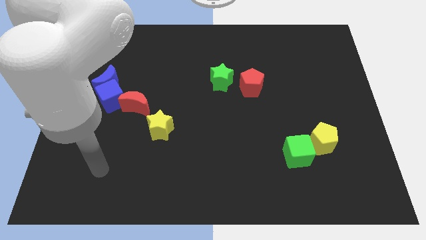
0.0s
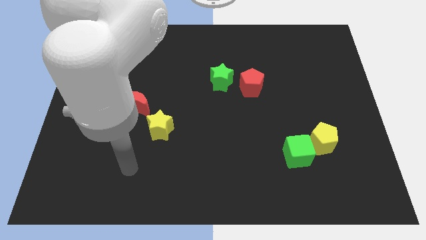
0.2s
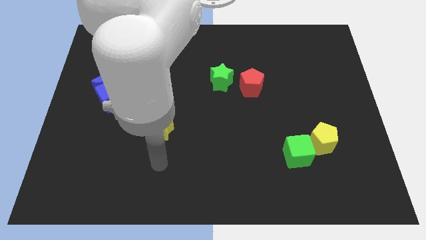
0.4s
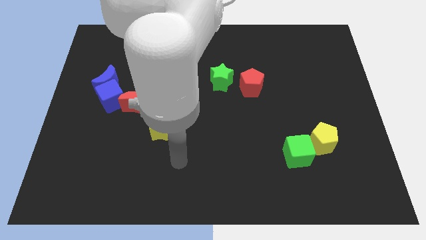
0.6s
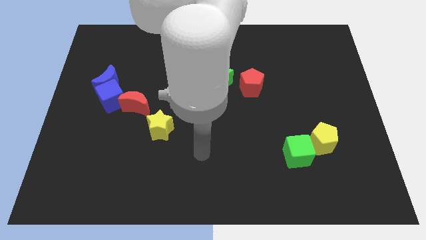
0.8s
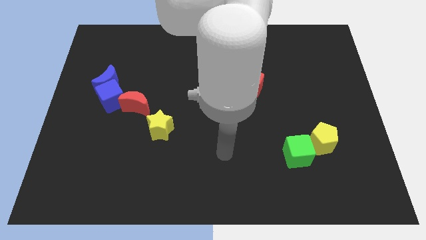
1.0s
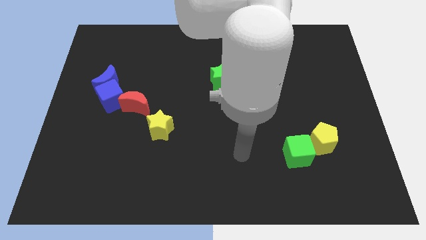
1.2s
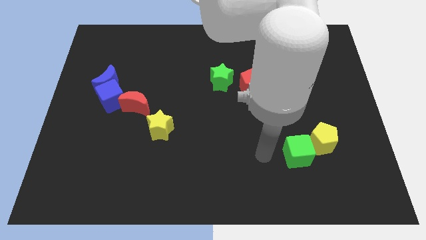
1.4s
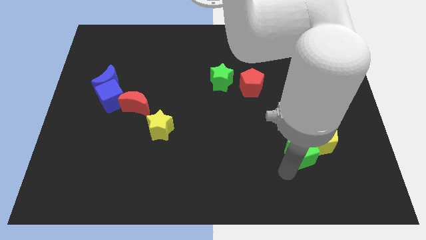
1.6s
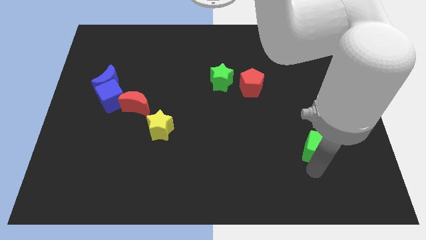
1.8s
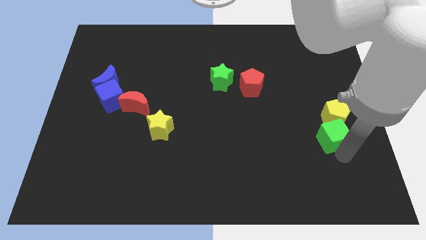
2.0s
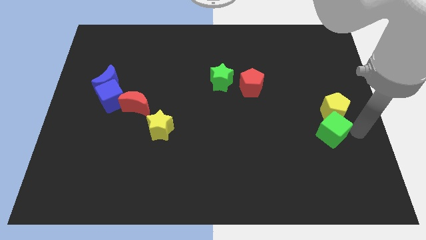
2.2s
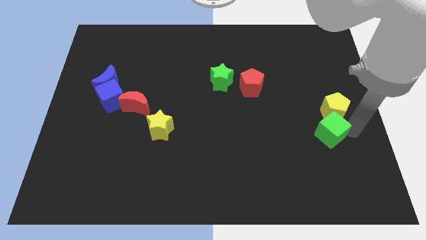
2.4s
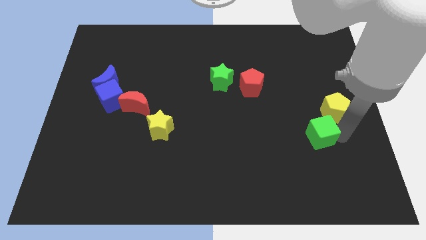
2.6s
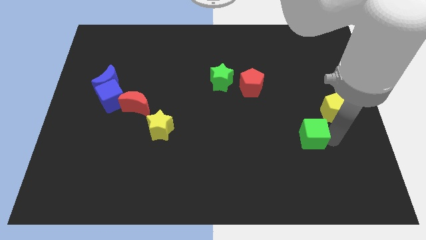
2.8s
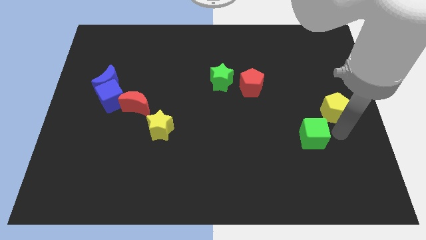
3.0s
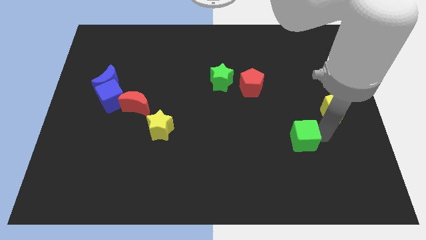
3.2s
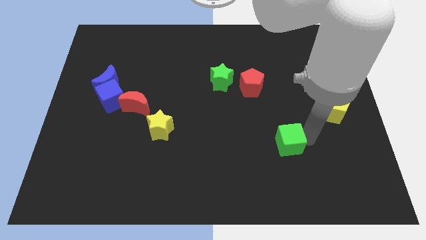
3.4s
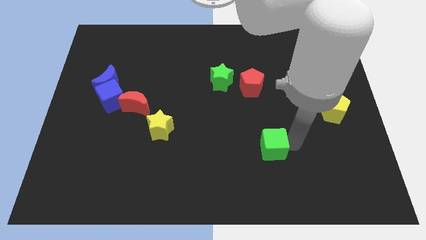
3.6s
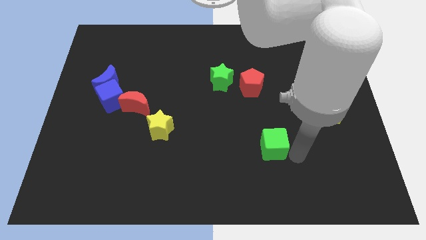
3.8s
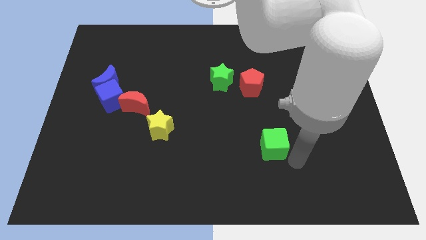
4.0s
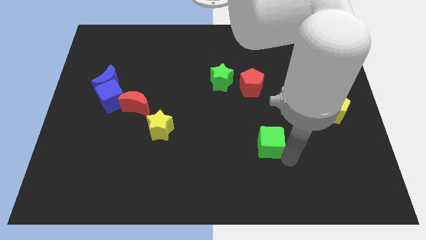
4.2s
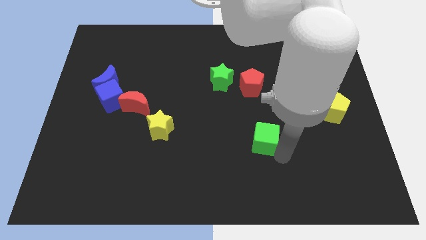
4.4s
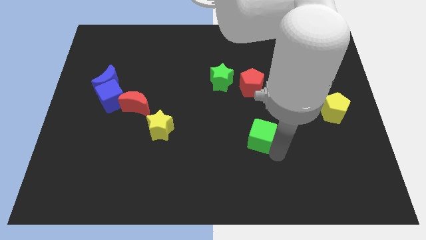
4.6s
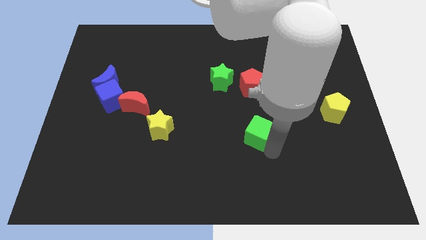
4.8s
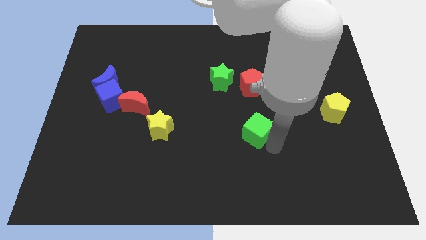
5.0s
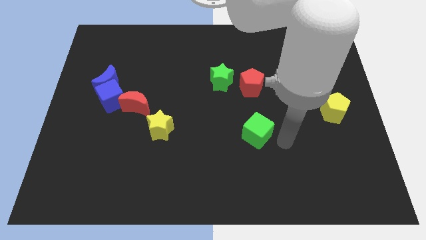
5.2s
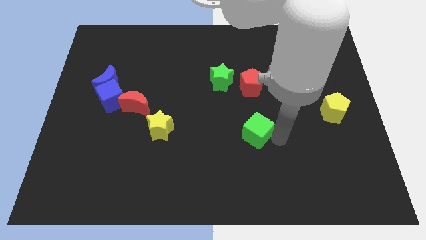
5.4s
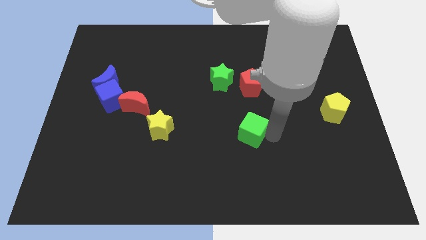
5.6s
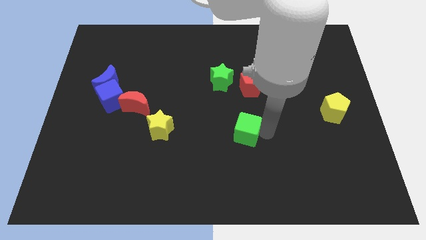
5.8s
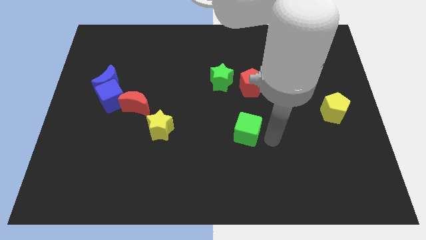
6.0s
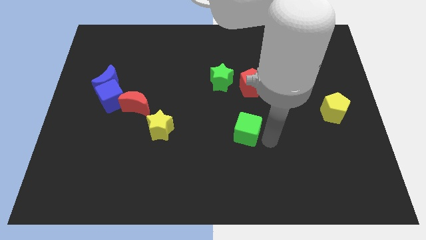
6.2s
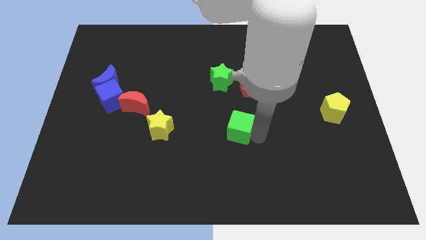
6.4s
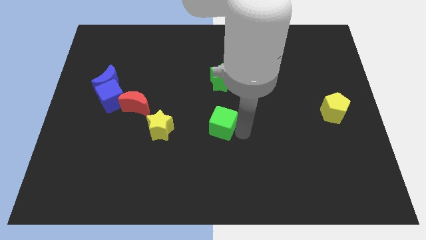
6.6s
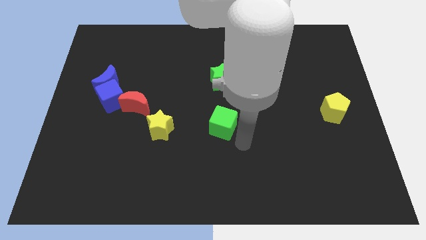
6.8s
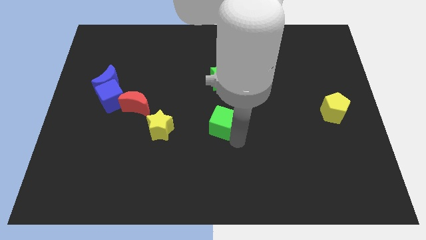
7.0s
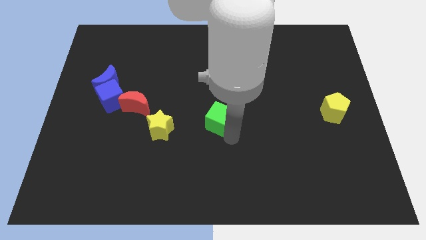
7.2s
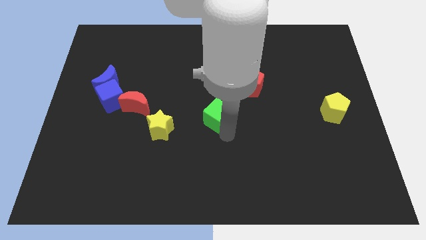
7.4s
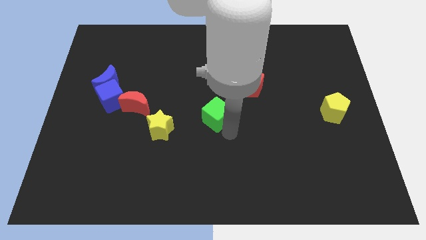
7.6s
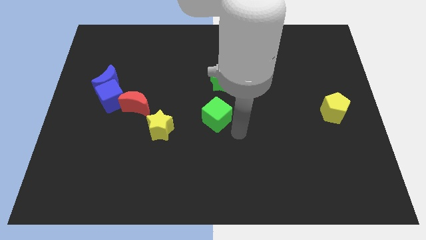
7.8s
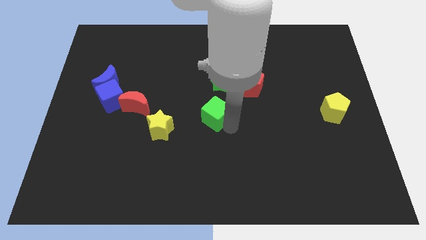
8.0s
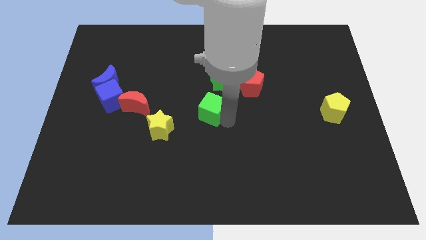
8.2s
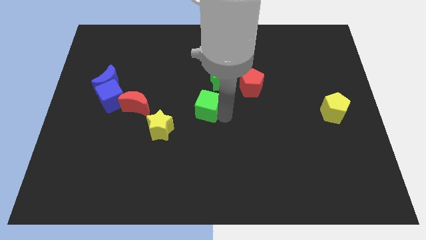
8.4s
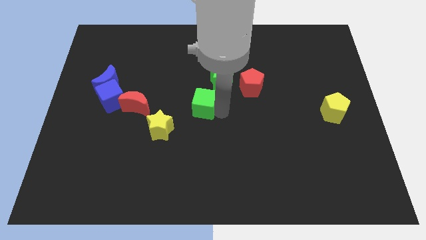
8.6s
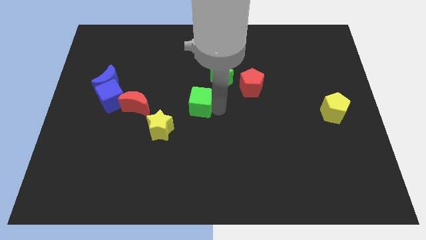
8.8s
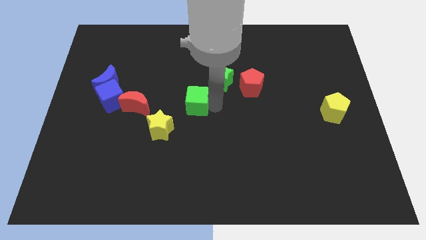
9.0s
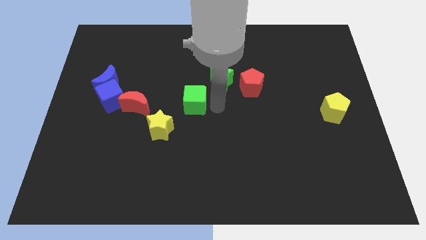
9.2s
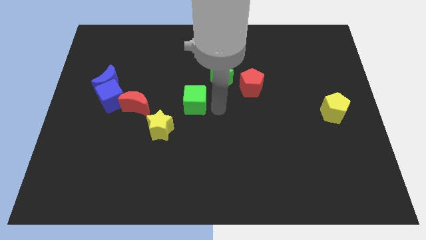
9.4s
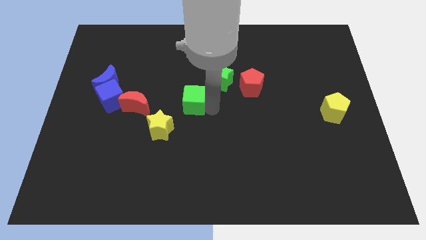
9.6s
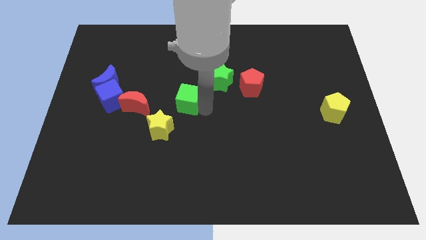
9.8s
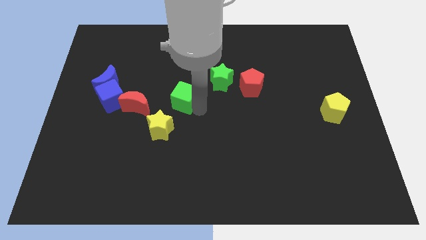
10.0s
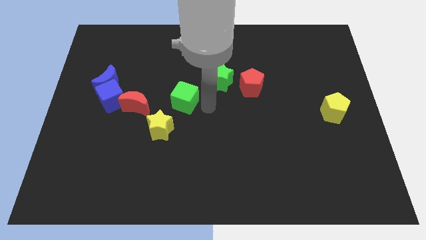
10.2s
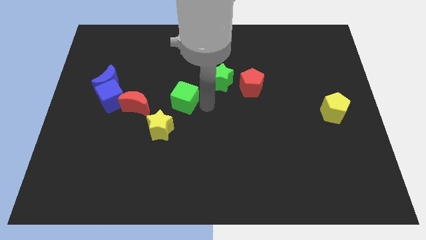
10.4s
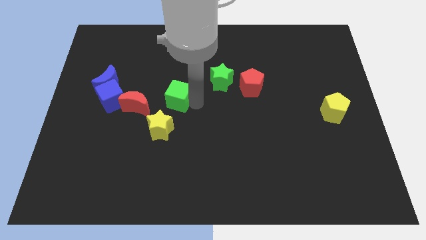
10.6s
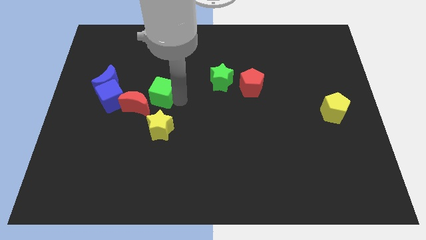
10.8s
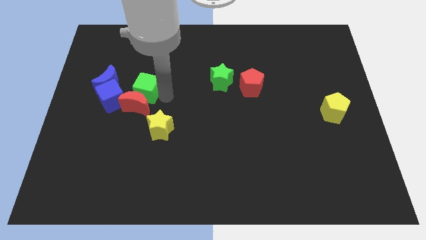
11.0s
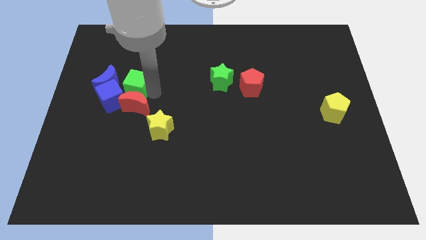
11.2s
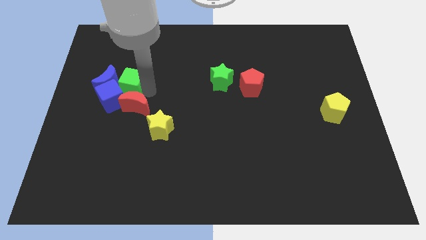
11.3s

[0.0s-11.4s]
slide the green cube next to the blue moon

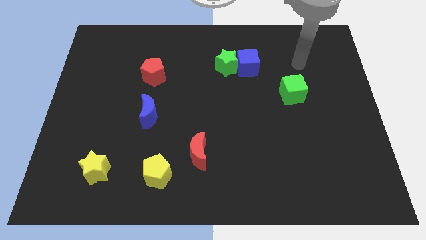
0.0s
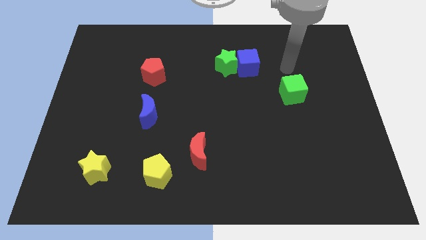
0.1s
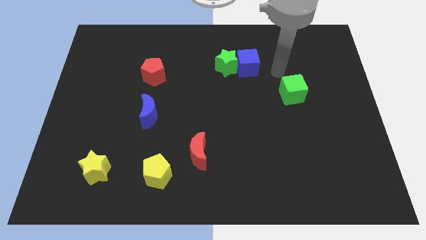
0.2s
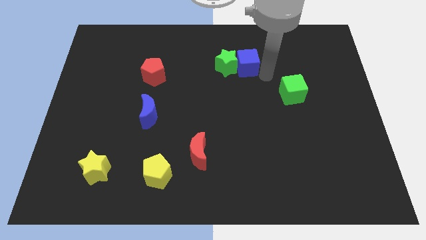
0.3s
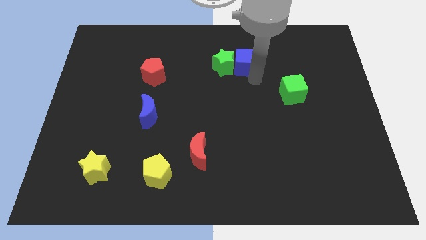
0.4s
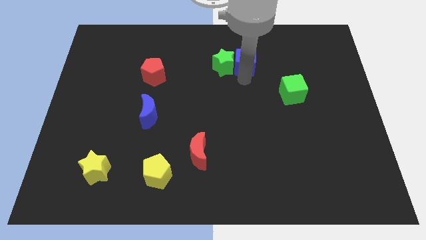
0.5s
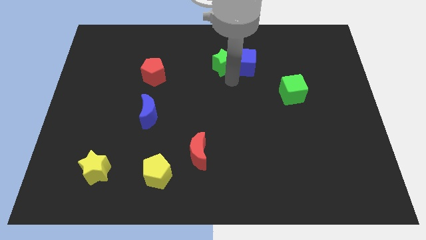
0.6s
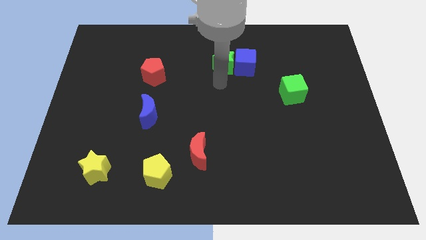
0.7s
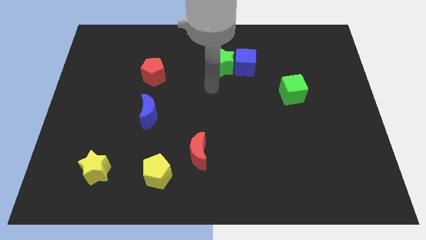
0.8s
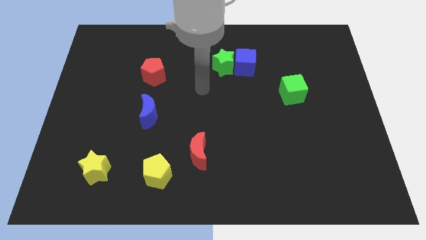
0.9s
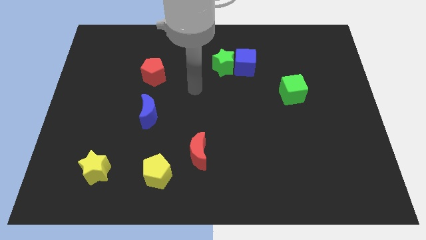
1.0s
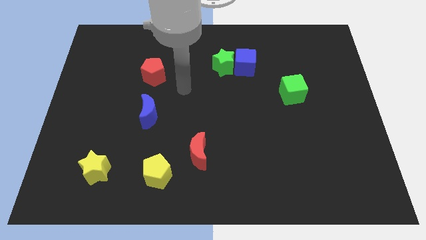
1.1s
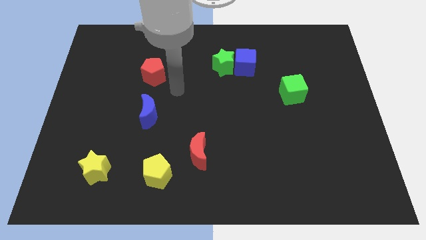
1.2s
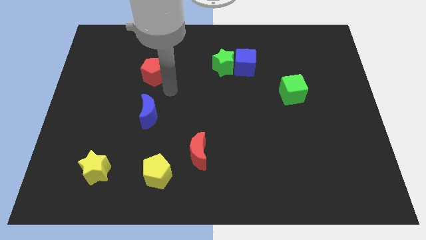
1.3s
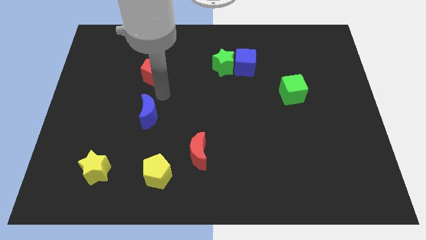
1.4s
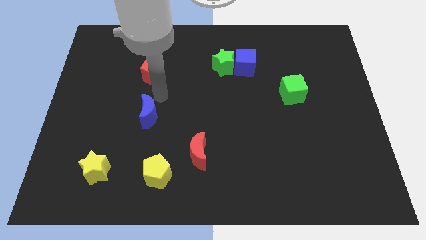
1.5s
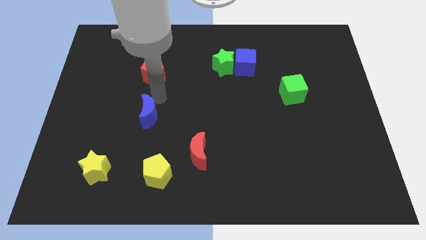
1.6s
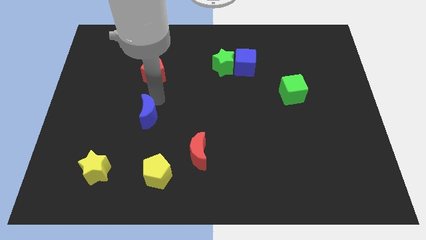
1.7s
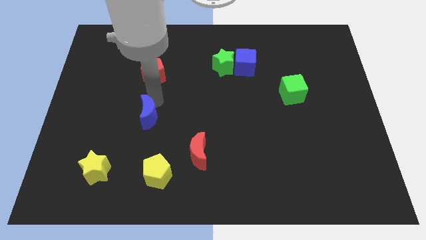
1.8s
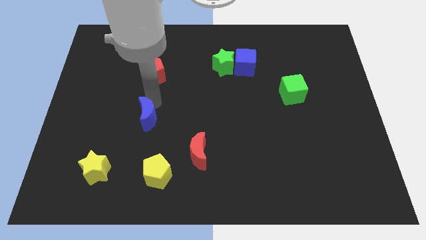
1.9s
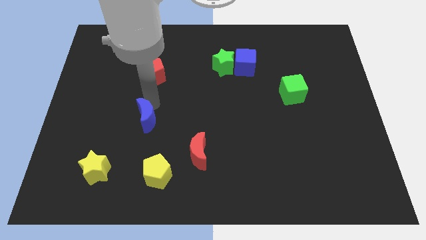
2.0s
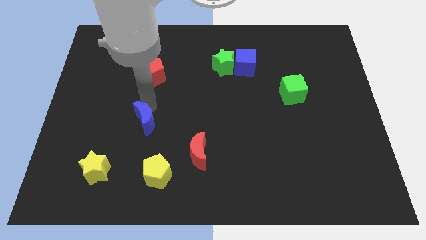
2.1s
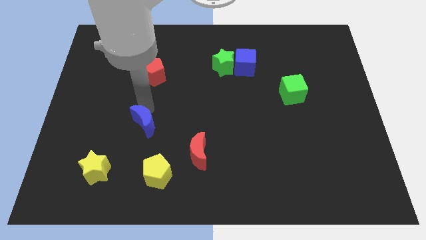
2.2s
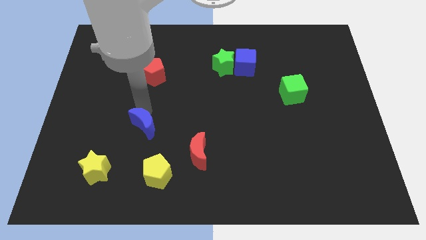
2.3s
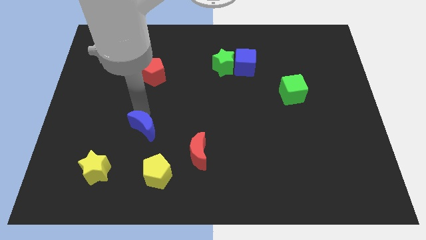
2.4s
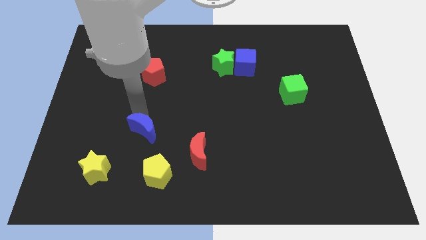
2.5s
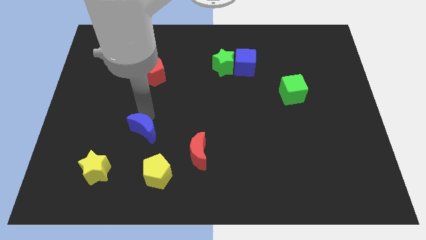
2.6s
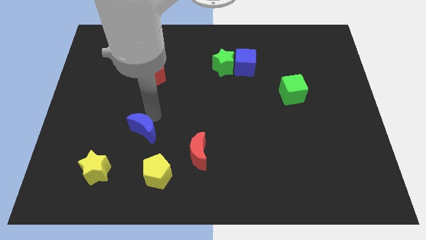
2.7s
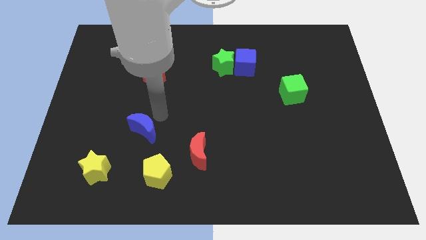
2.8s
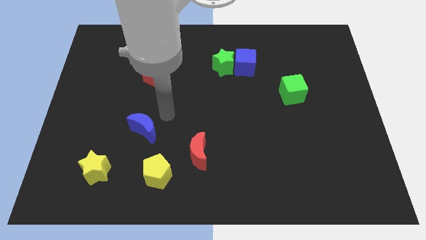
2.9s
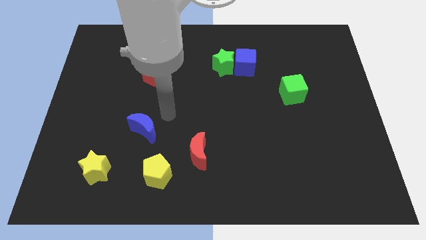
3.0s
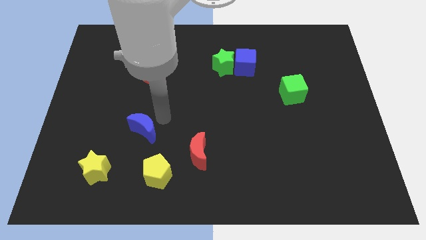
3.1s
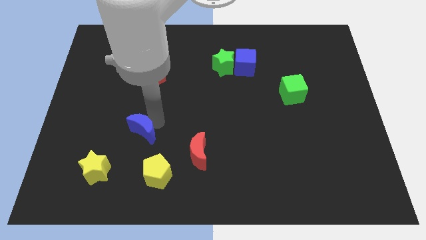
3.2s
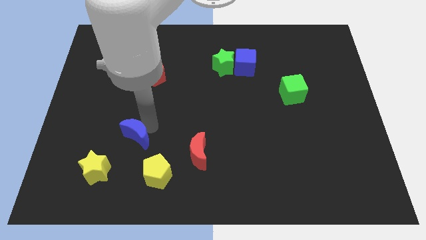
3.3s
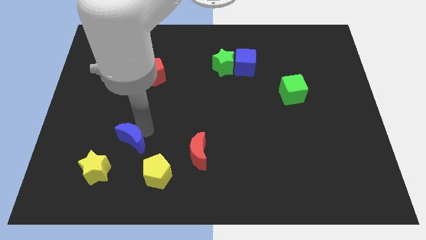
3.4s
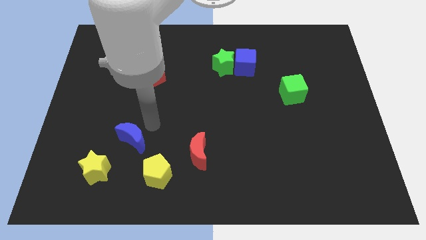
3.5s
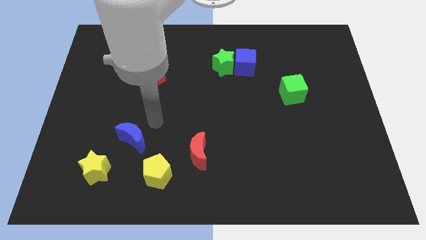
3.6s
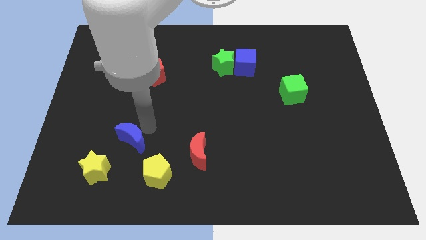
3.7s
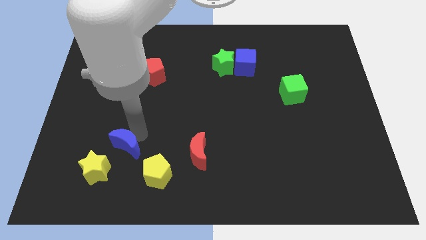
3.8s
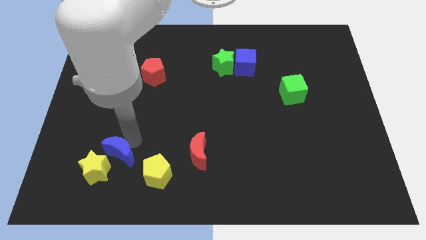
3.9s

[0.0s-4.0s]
put the blue moon towards the yellow star
